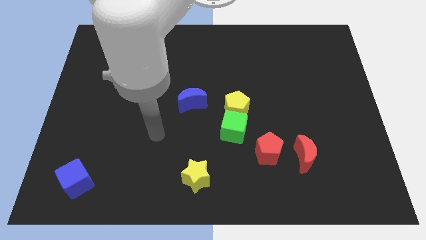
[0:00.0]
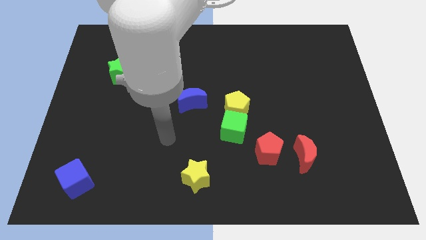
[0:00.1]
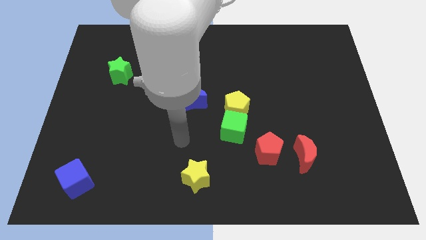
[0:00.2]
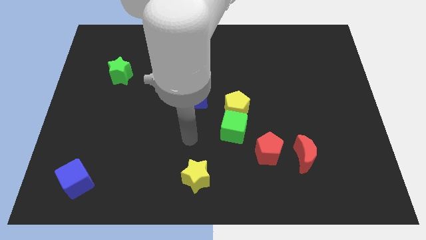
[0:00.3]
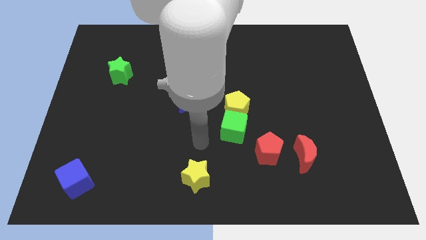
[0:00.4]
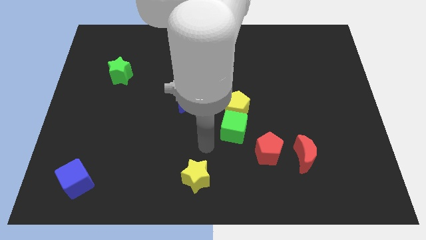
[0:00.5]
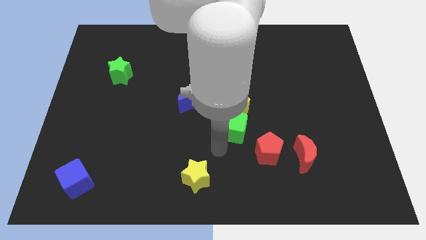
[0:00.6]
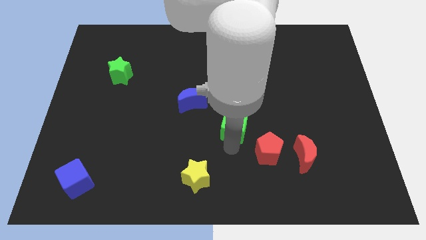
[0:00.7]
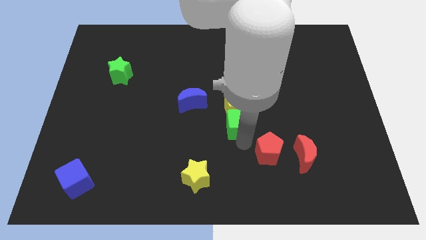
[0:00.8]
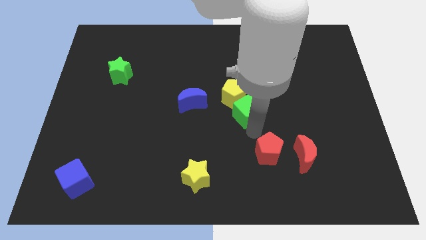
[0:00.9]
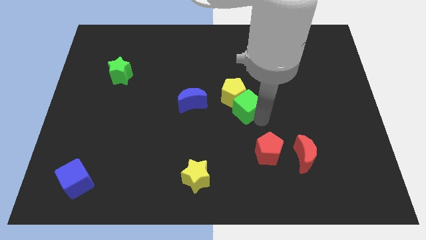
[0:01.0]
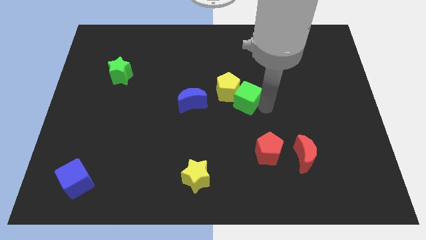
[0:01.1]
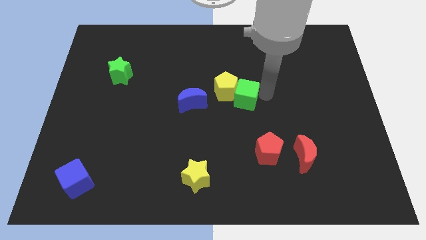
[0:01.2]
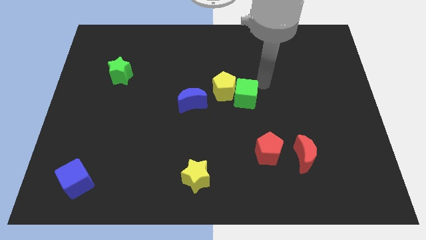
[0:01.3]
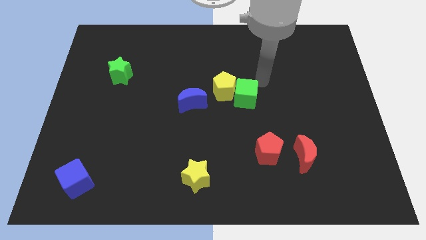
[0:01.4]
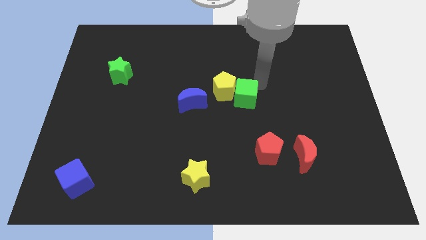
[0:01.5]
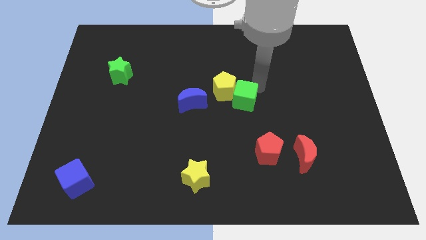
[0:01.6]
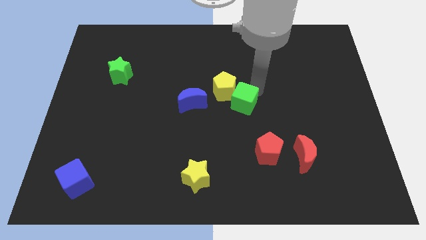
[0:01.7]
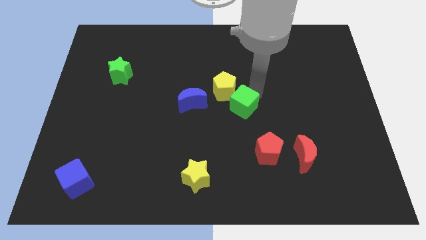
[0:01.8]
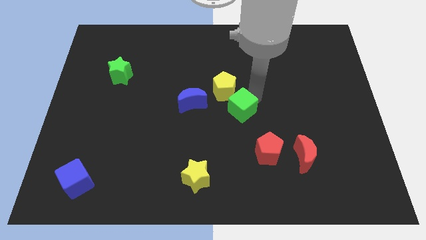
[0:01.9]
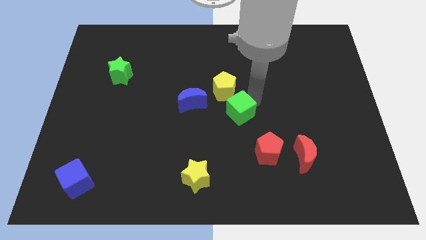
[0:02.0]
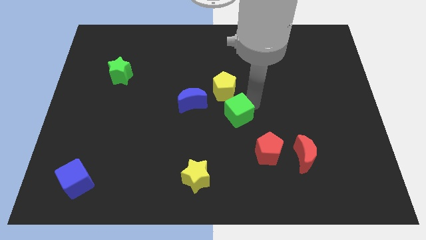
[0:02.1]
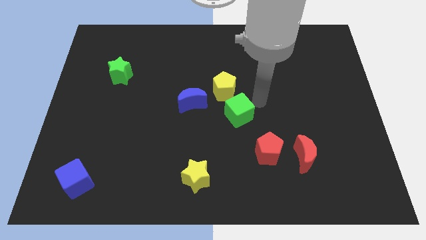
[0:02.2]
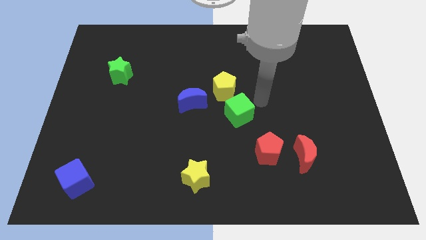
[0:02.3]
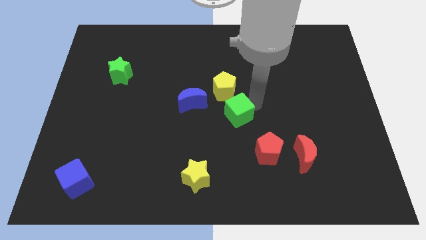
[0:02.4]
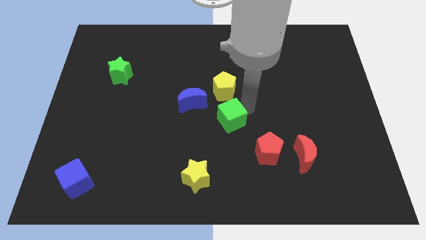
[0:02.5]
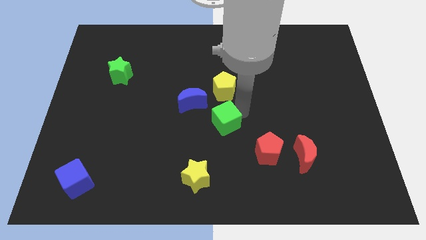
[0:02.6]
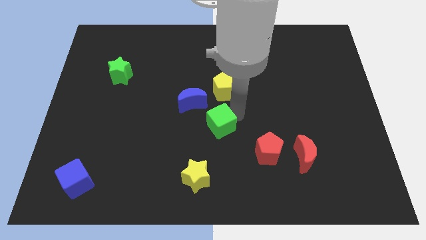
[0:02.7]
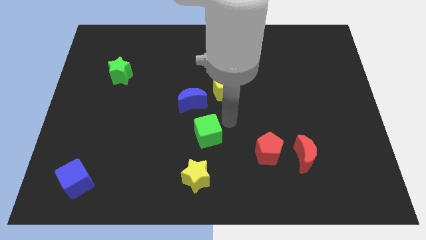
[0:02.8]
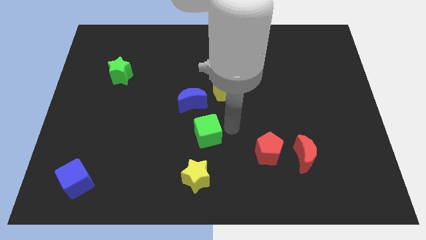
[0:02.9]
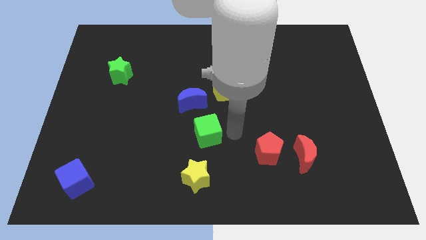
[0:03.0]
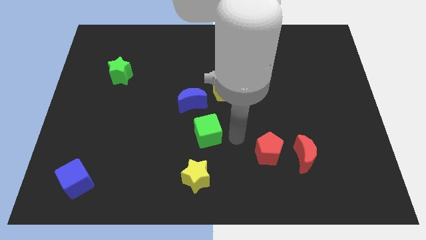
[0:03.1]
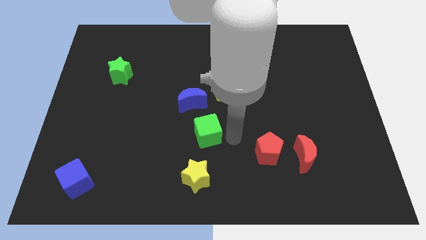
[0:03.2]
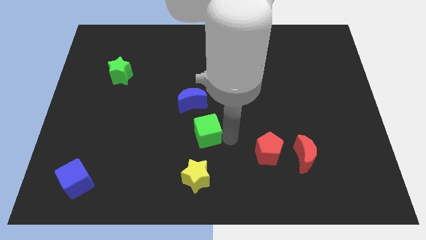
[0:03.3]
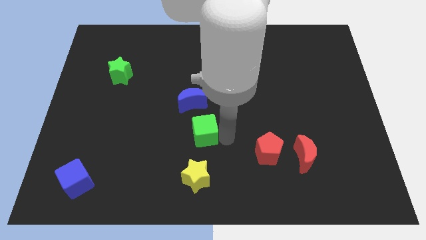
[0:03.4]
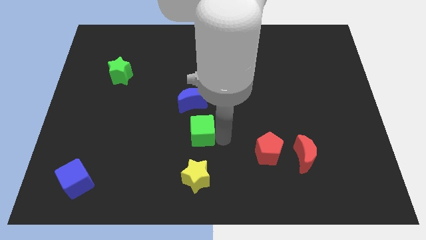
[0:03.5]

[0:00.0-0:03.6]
slightly slide the green cube to the left

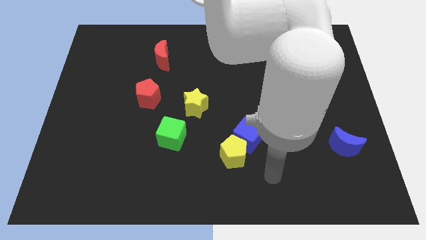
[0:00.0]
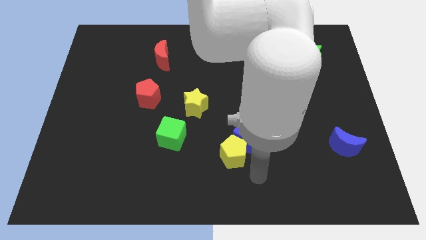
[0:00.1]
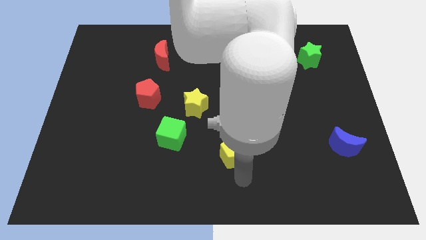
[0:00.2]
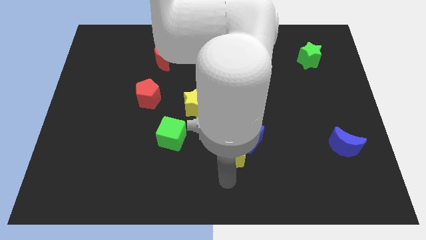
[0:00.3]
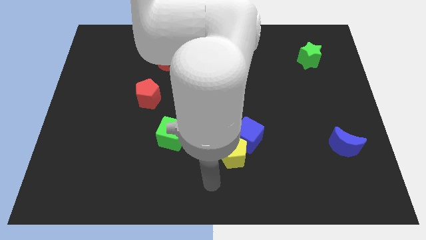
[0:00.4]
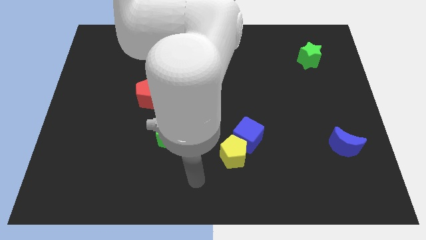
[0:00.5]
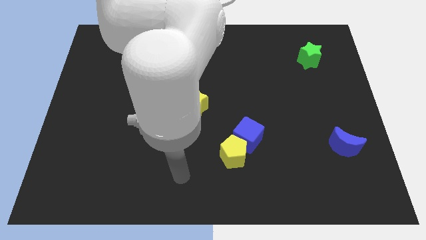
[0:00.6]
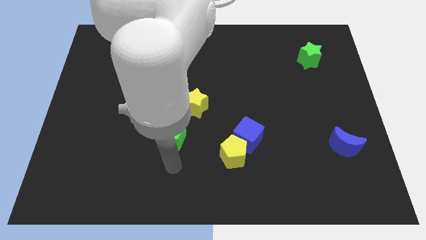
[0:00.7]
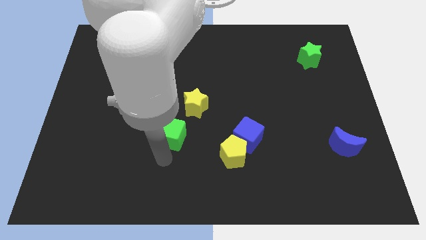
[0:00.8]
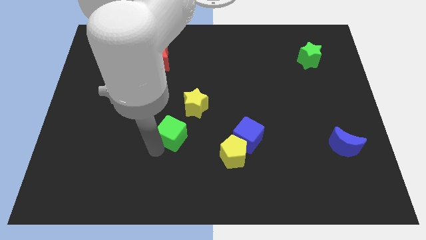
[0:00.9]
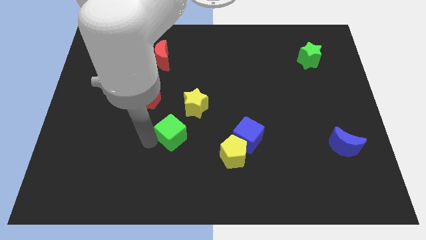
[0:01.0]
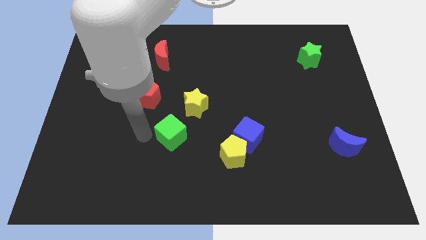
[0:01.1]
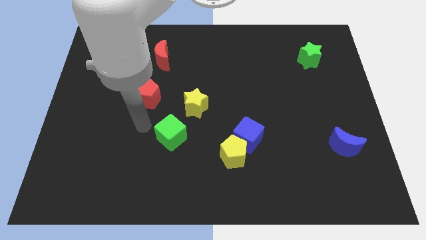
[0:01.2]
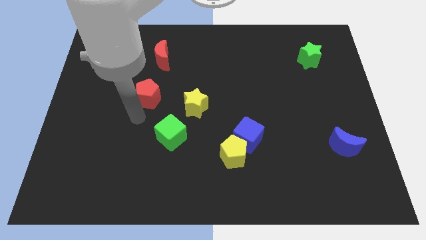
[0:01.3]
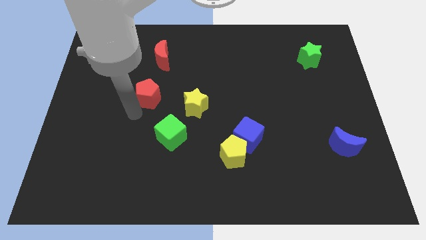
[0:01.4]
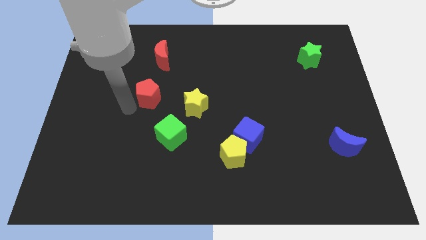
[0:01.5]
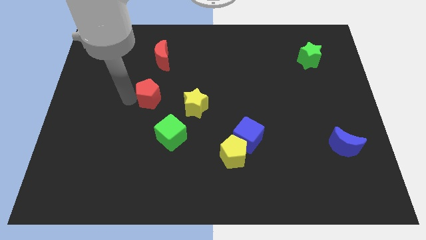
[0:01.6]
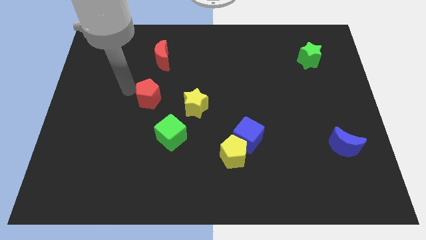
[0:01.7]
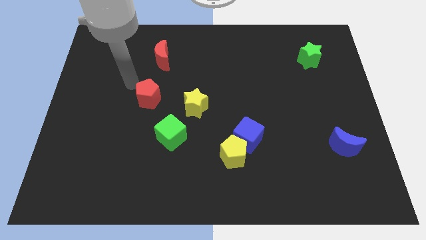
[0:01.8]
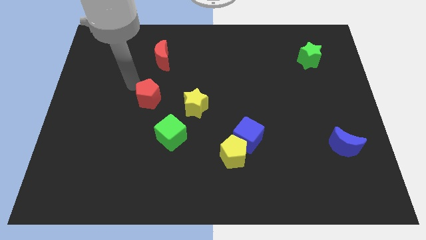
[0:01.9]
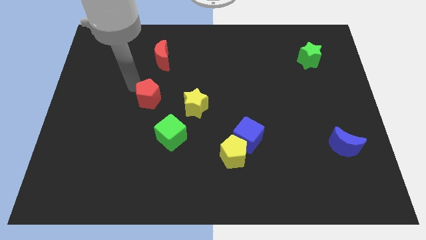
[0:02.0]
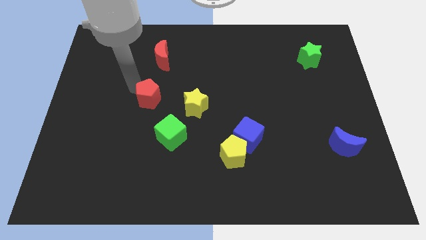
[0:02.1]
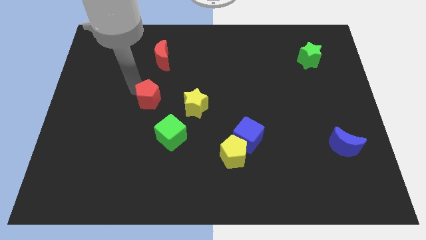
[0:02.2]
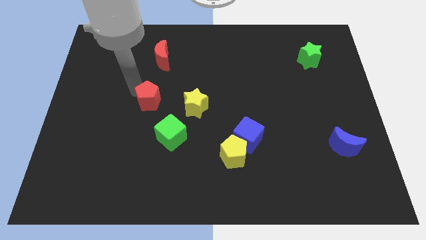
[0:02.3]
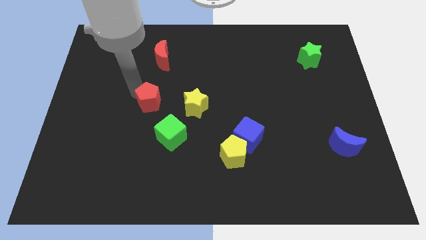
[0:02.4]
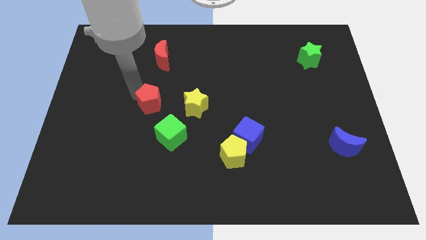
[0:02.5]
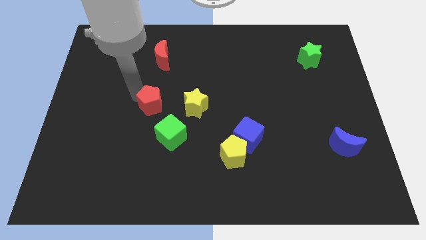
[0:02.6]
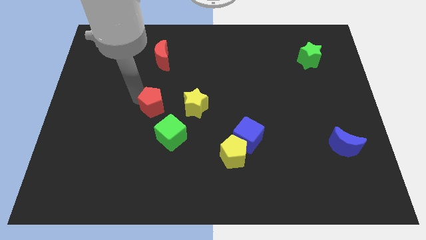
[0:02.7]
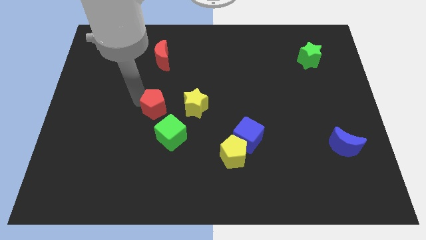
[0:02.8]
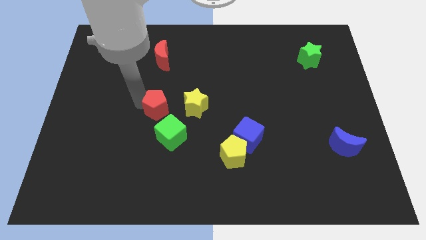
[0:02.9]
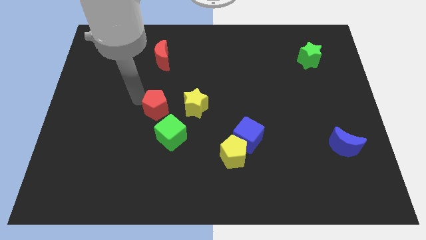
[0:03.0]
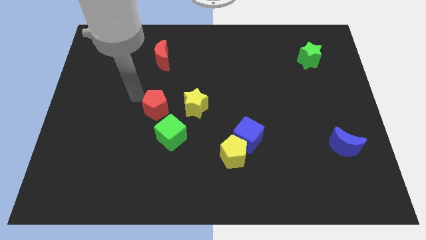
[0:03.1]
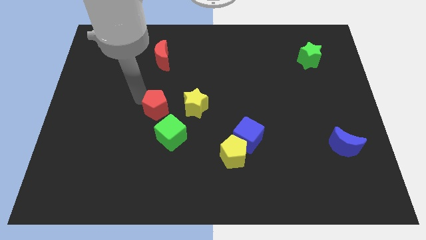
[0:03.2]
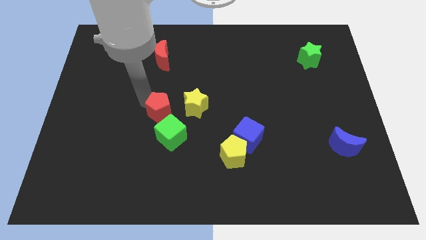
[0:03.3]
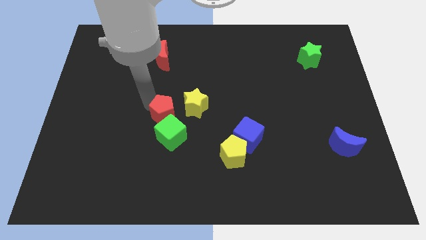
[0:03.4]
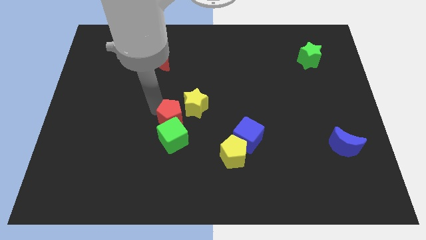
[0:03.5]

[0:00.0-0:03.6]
move the red pentagon a bit downwards and right

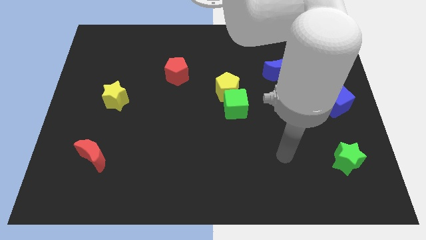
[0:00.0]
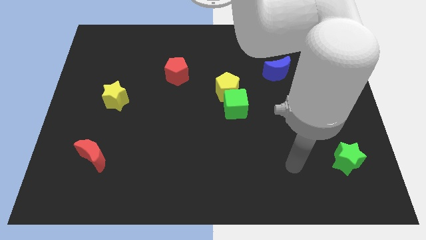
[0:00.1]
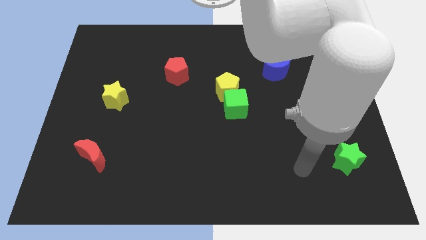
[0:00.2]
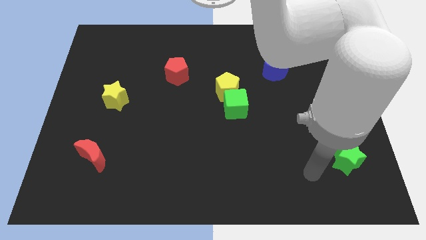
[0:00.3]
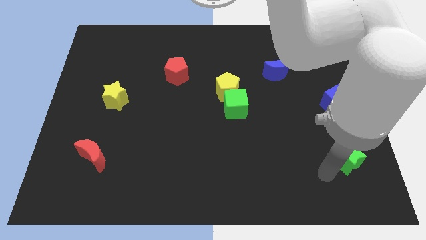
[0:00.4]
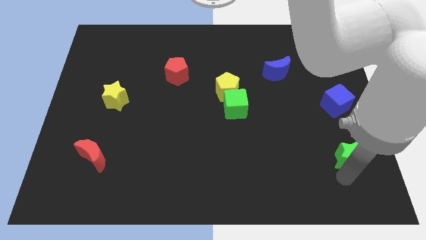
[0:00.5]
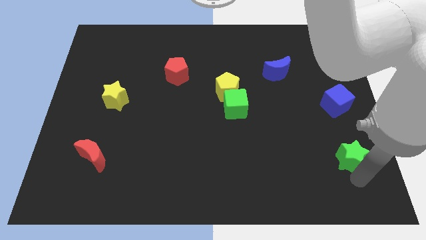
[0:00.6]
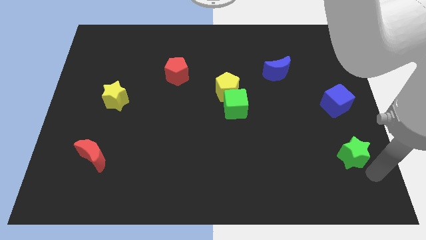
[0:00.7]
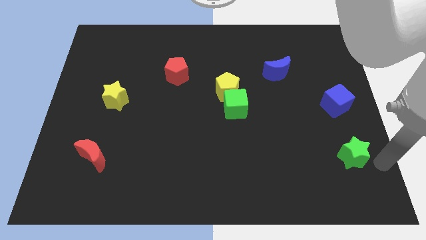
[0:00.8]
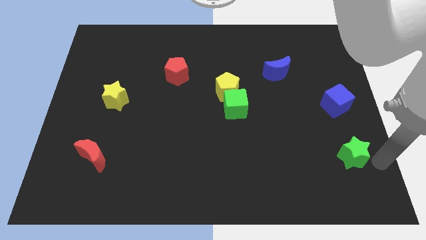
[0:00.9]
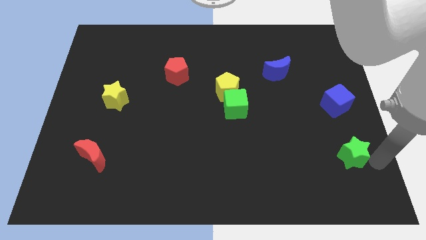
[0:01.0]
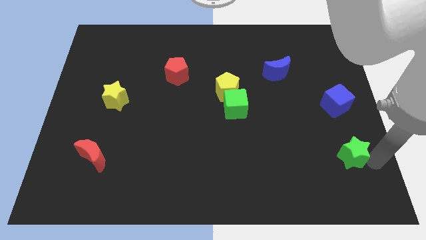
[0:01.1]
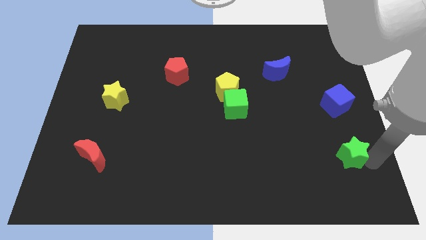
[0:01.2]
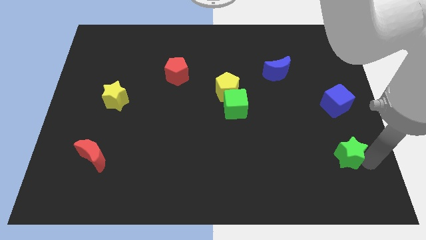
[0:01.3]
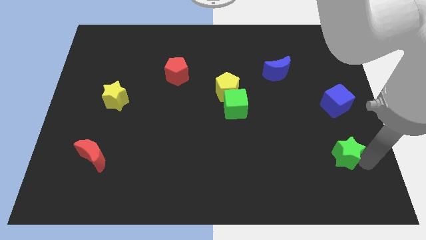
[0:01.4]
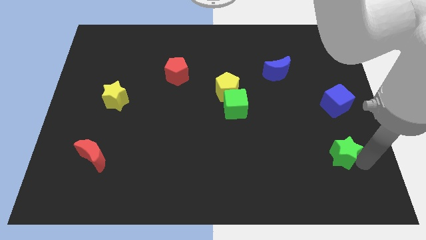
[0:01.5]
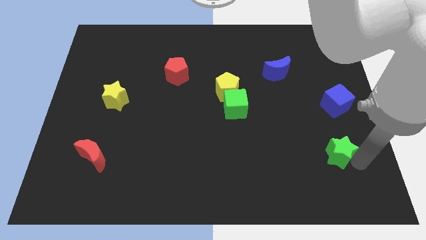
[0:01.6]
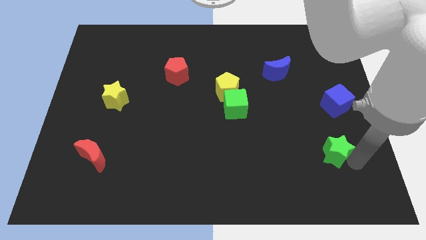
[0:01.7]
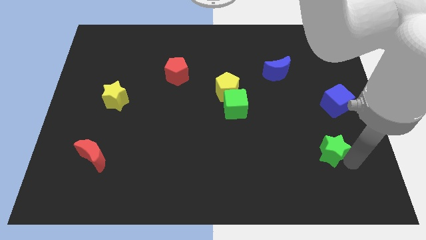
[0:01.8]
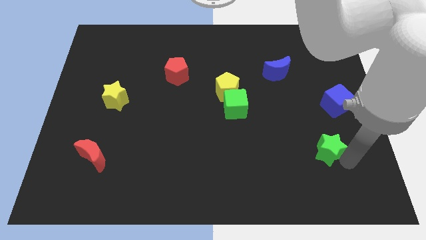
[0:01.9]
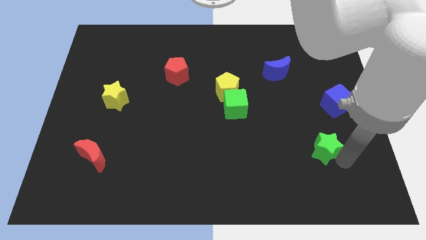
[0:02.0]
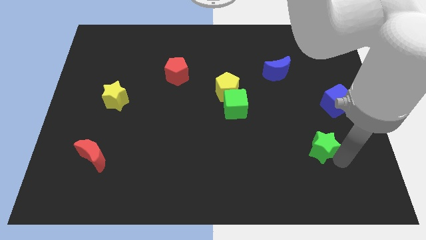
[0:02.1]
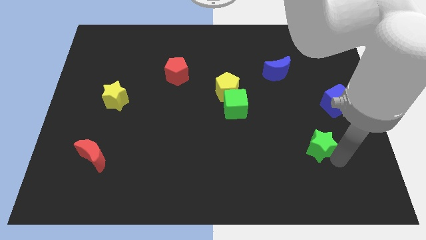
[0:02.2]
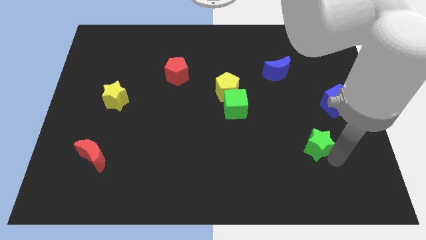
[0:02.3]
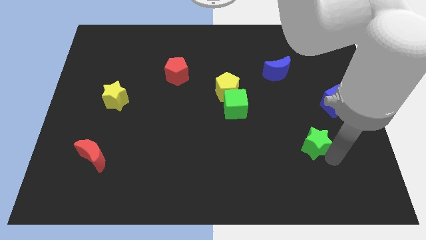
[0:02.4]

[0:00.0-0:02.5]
push the green star slightly up and to the left
